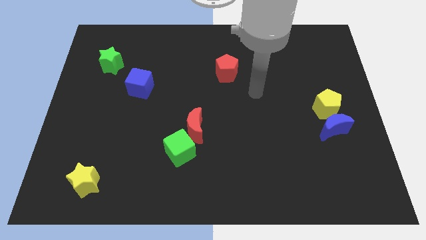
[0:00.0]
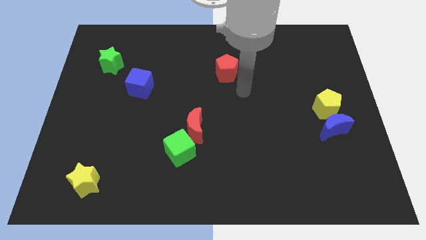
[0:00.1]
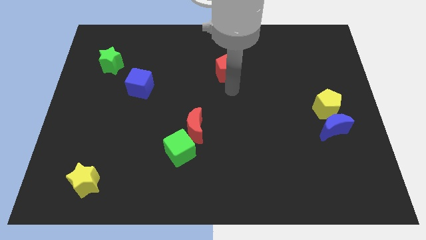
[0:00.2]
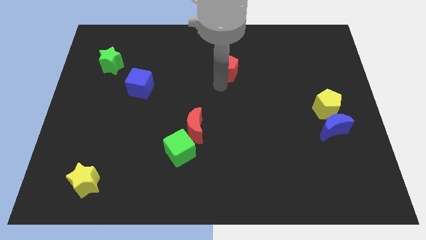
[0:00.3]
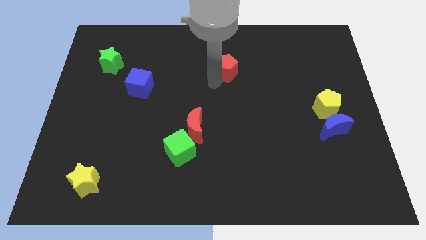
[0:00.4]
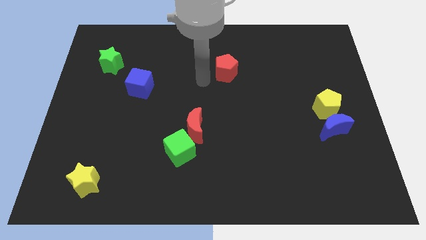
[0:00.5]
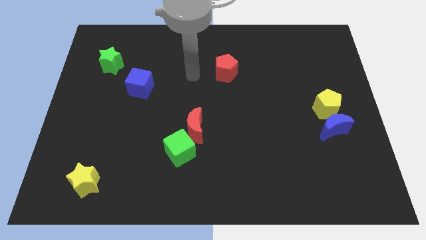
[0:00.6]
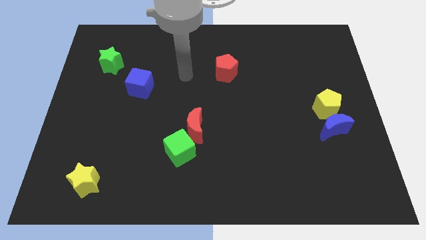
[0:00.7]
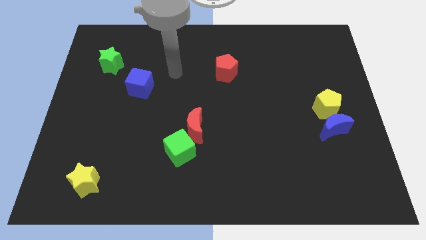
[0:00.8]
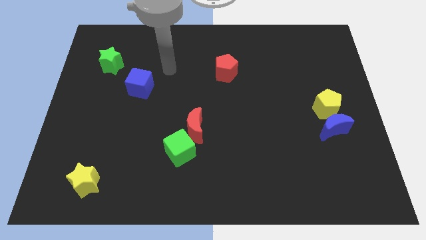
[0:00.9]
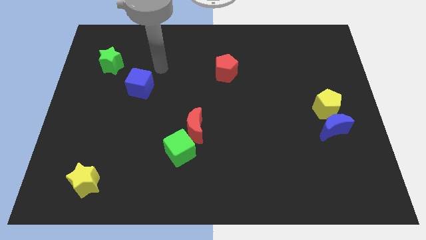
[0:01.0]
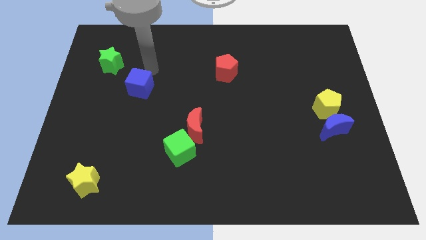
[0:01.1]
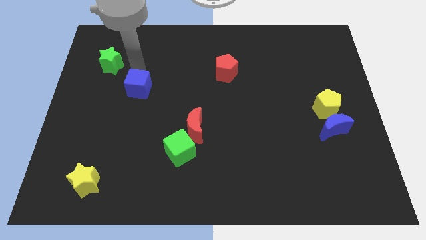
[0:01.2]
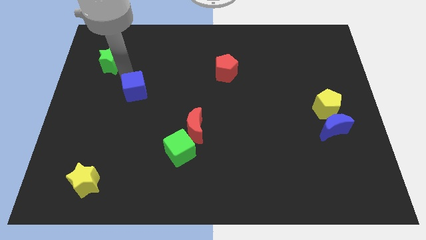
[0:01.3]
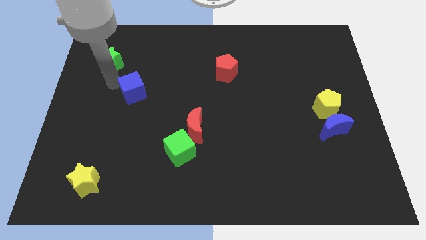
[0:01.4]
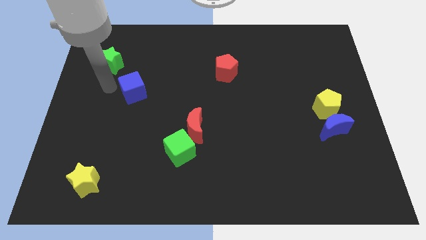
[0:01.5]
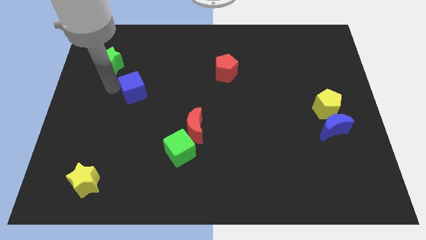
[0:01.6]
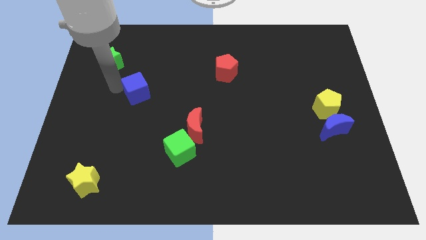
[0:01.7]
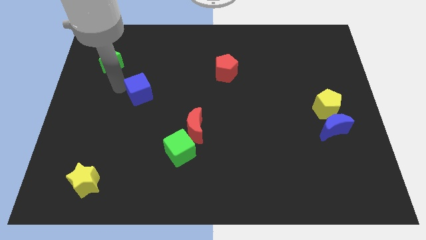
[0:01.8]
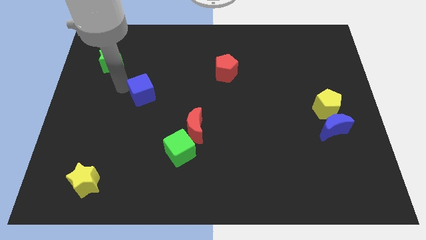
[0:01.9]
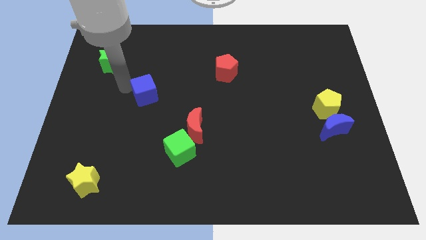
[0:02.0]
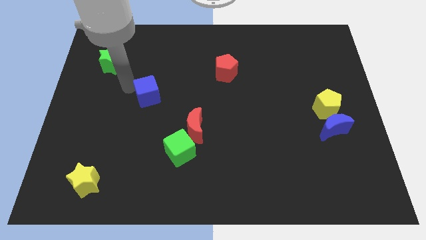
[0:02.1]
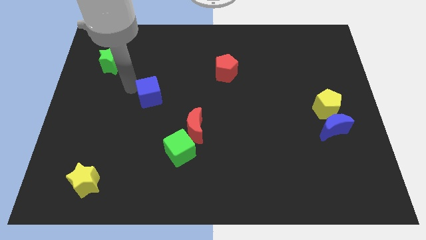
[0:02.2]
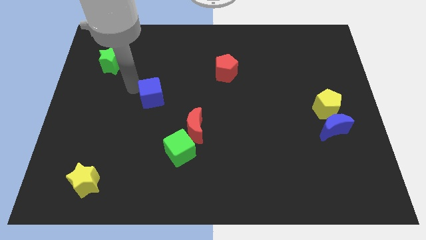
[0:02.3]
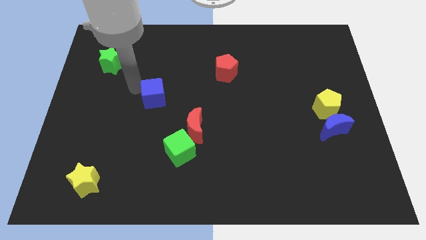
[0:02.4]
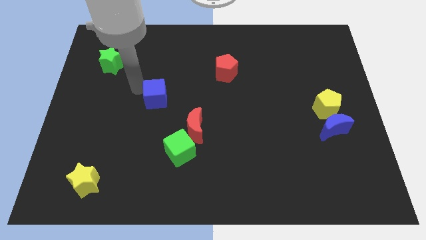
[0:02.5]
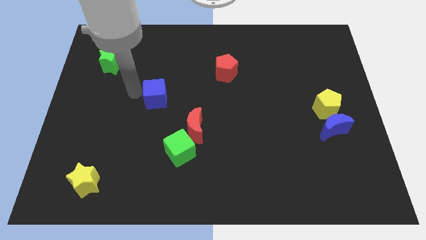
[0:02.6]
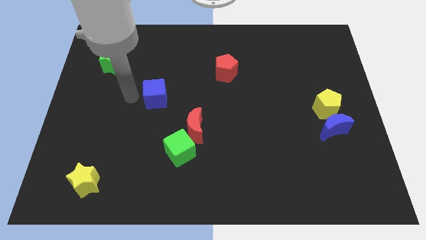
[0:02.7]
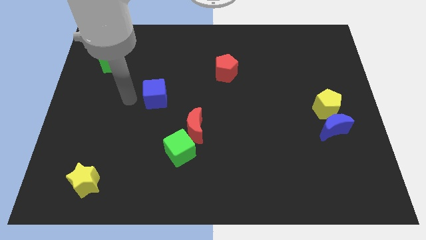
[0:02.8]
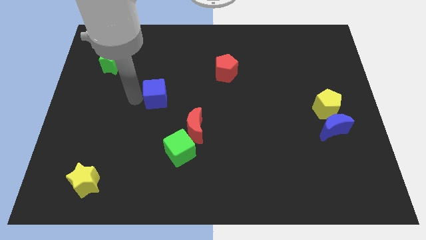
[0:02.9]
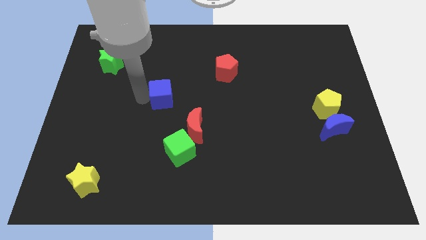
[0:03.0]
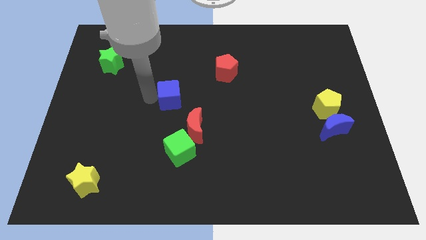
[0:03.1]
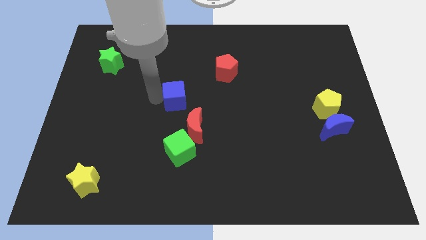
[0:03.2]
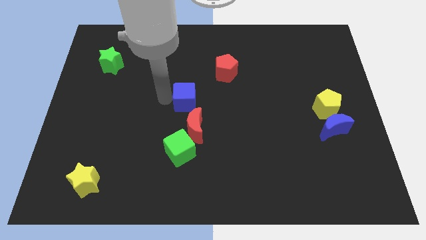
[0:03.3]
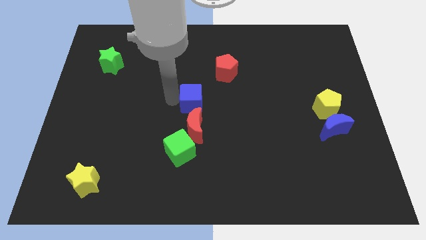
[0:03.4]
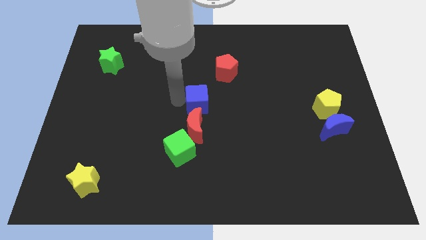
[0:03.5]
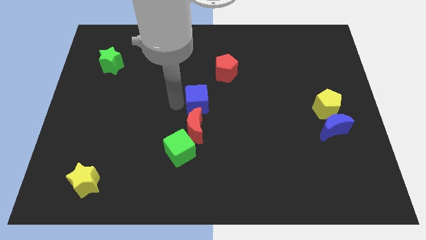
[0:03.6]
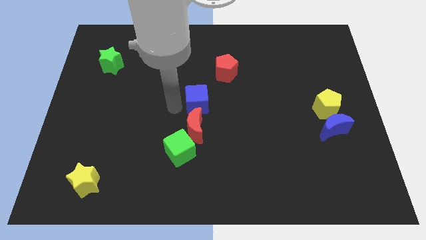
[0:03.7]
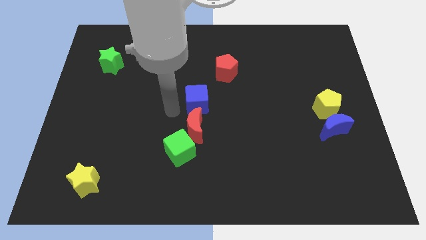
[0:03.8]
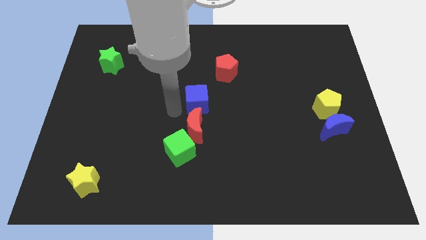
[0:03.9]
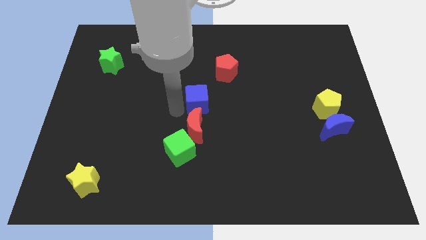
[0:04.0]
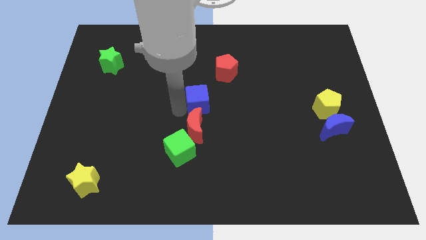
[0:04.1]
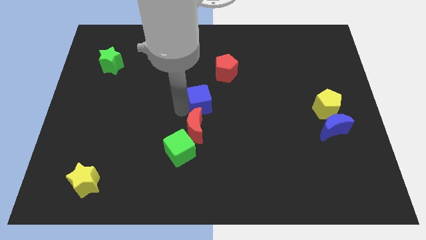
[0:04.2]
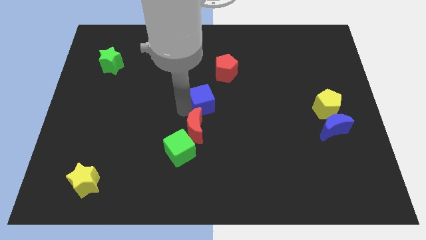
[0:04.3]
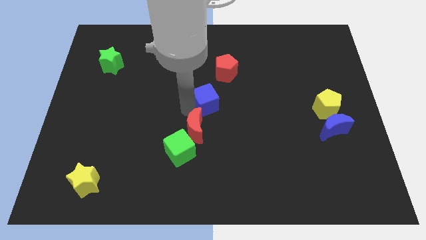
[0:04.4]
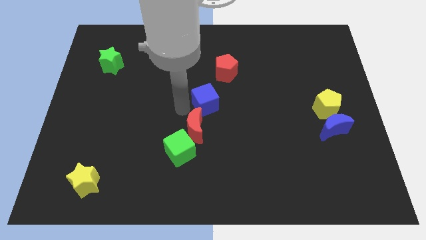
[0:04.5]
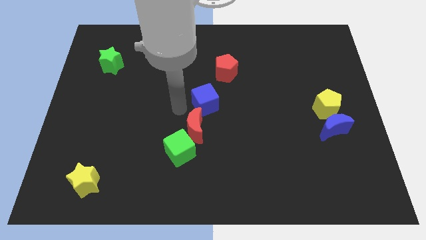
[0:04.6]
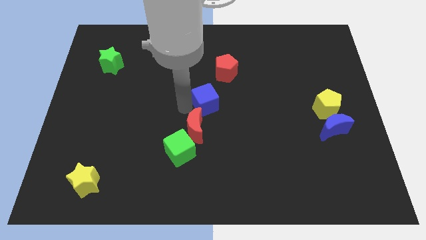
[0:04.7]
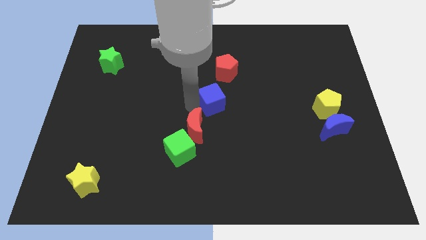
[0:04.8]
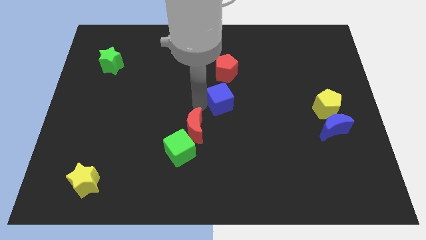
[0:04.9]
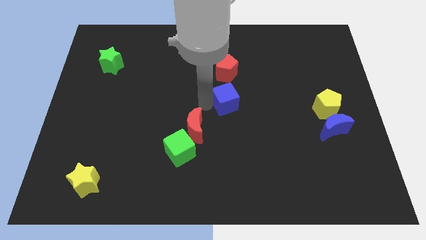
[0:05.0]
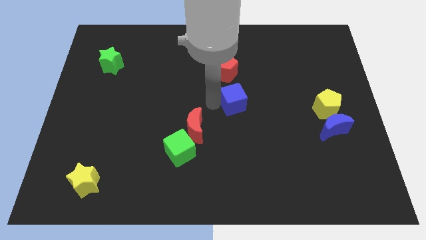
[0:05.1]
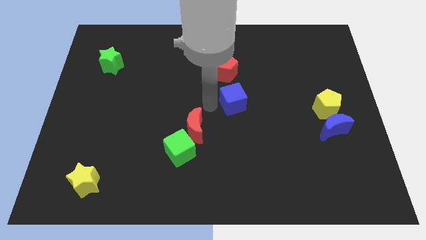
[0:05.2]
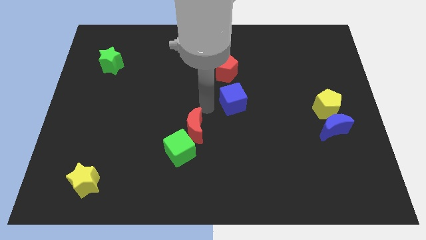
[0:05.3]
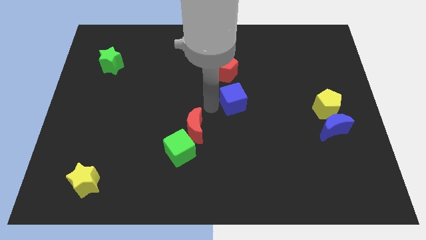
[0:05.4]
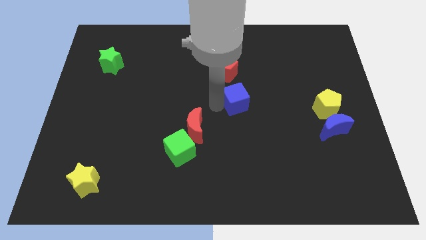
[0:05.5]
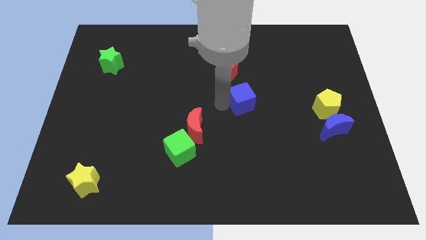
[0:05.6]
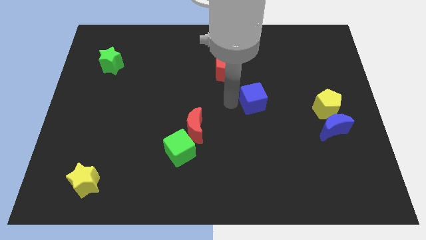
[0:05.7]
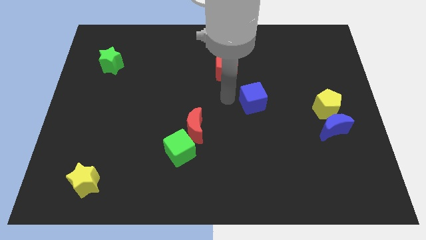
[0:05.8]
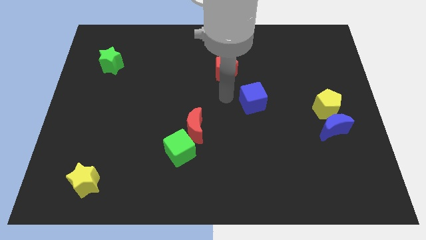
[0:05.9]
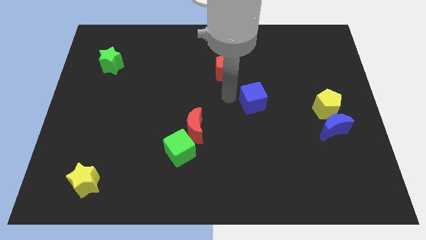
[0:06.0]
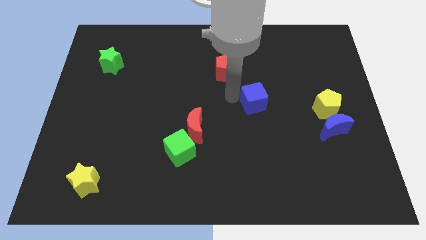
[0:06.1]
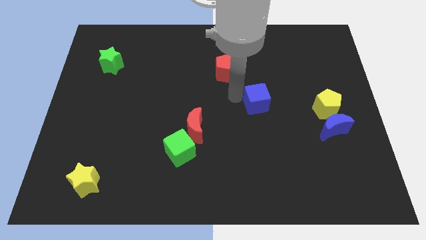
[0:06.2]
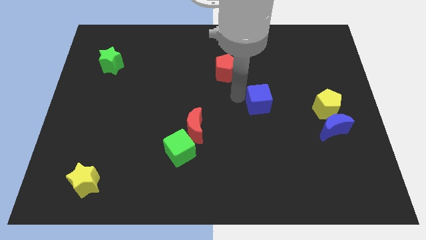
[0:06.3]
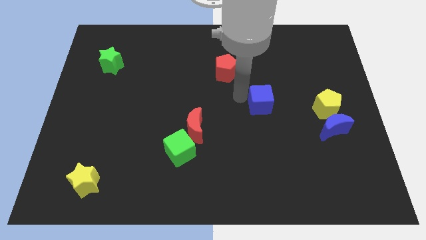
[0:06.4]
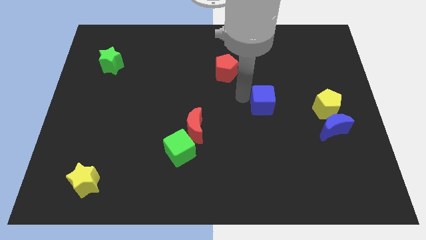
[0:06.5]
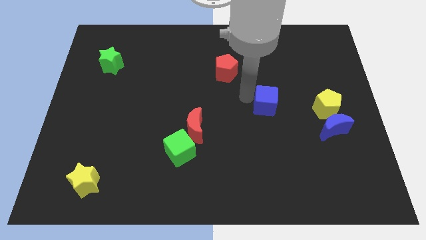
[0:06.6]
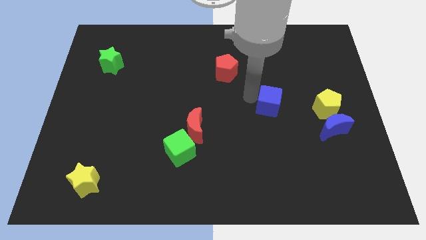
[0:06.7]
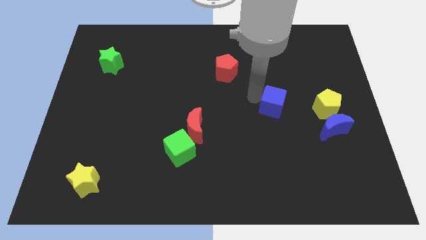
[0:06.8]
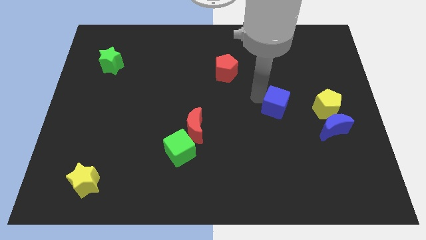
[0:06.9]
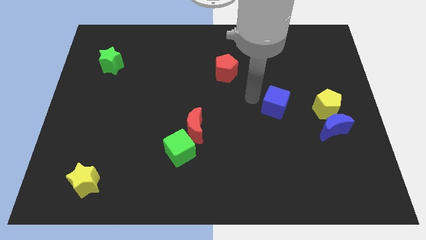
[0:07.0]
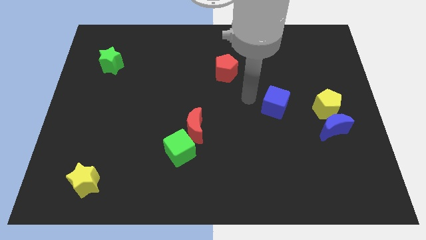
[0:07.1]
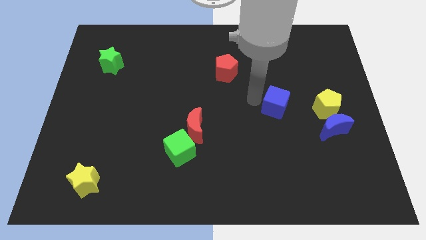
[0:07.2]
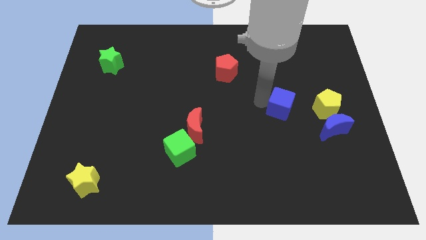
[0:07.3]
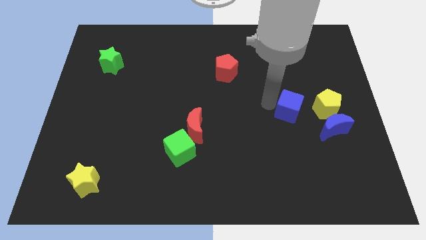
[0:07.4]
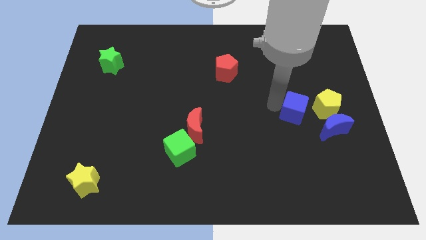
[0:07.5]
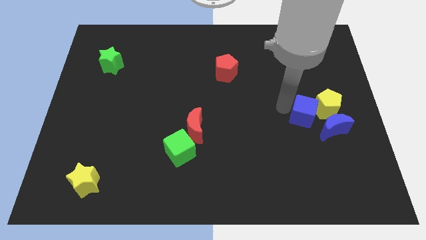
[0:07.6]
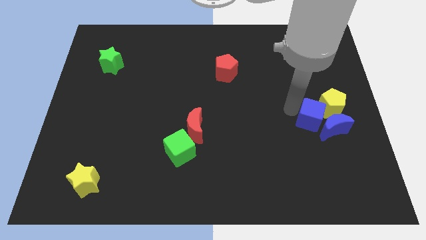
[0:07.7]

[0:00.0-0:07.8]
push the blue cube close to the blue moon
